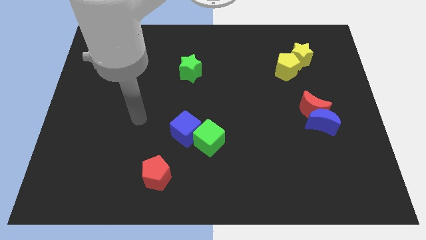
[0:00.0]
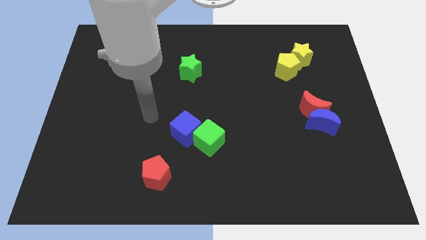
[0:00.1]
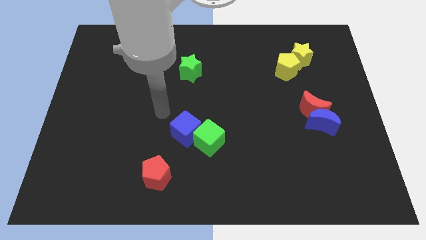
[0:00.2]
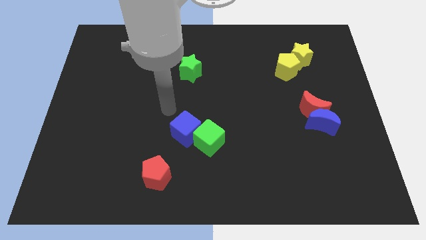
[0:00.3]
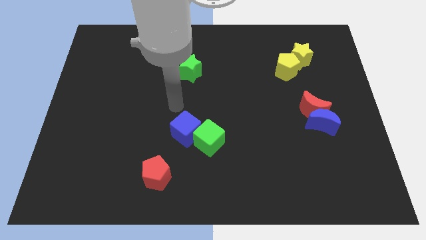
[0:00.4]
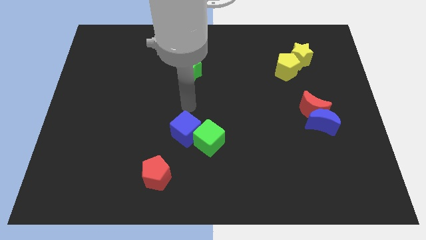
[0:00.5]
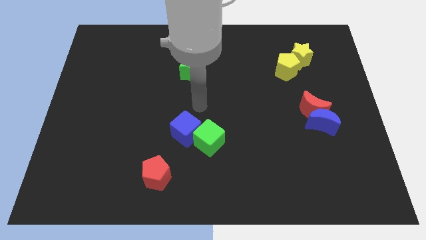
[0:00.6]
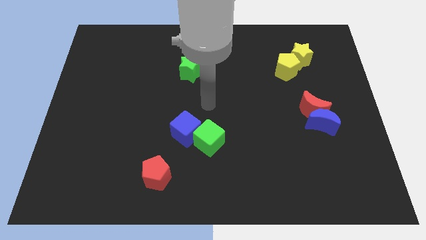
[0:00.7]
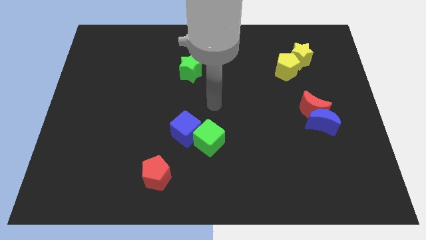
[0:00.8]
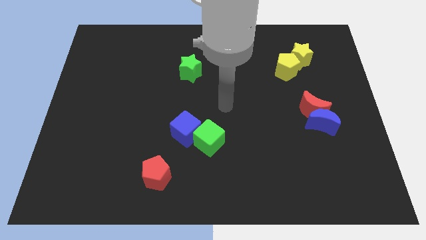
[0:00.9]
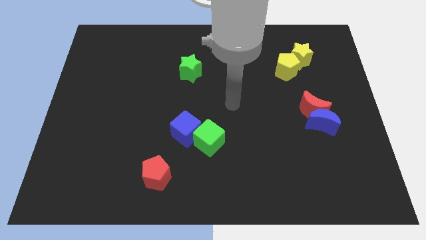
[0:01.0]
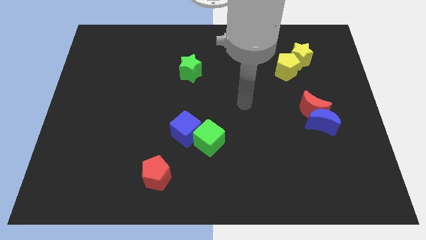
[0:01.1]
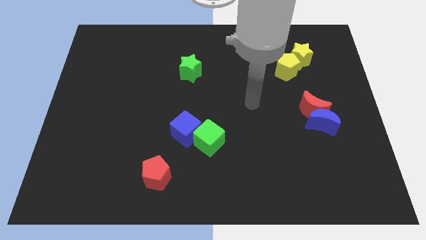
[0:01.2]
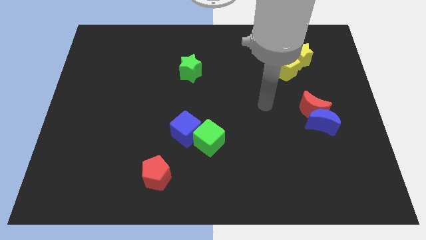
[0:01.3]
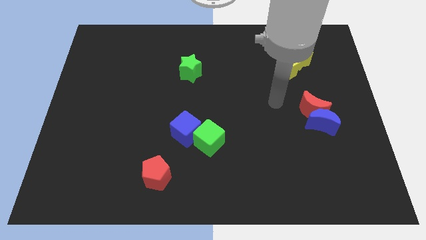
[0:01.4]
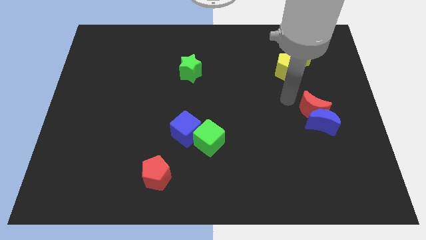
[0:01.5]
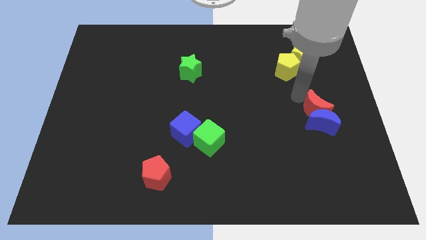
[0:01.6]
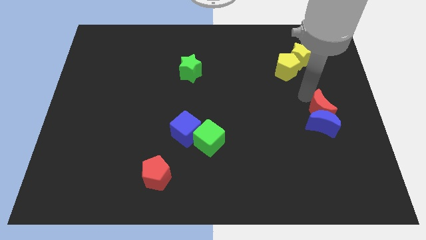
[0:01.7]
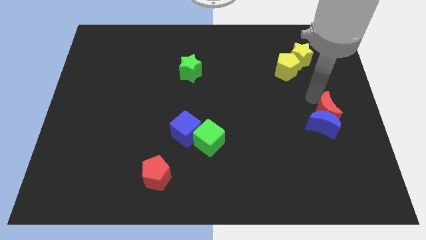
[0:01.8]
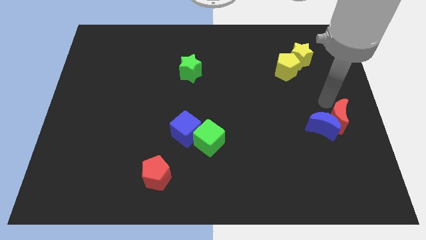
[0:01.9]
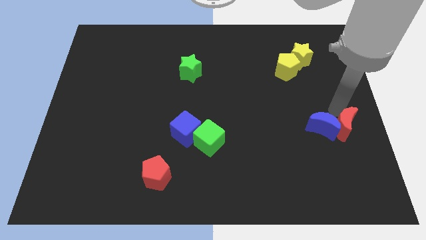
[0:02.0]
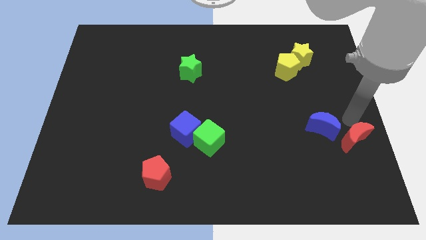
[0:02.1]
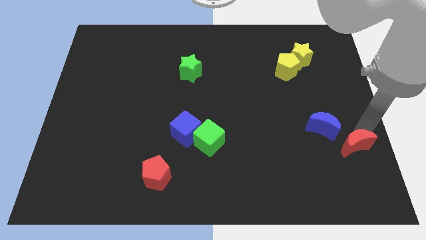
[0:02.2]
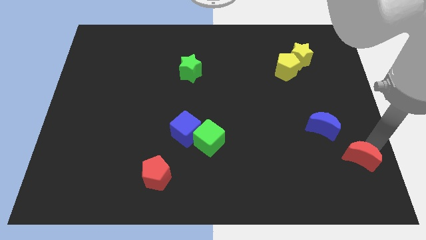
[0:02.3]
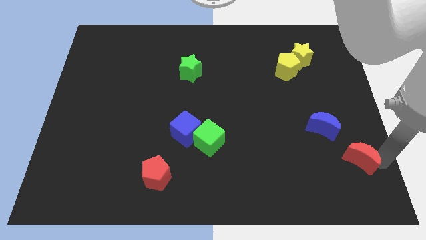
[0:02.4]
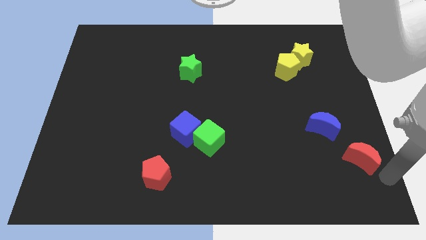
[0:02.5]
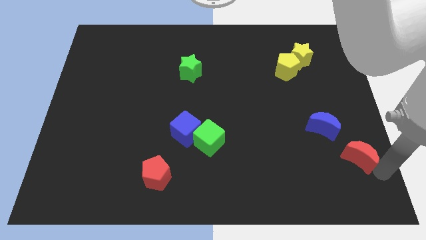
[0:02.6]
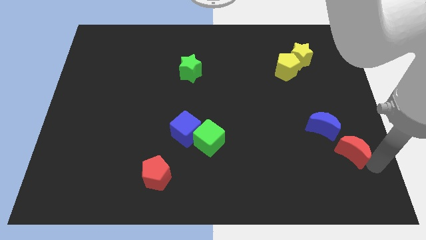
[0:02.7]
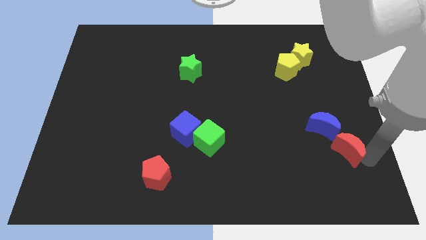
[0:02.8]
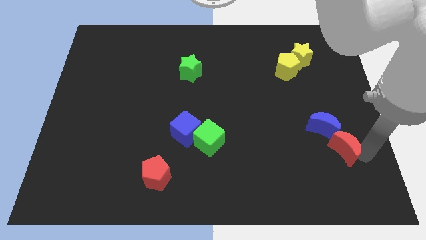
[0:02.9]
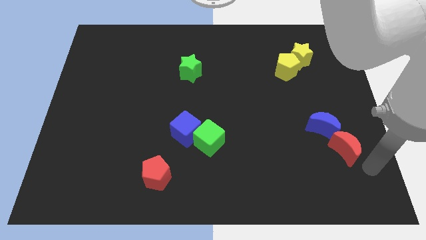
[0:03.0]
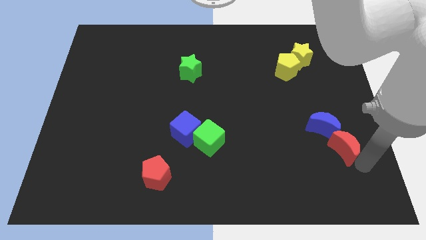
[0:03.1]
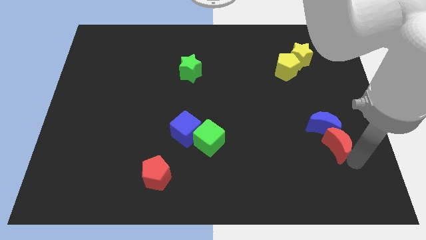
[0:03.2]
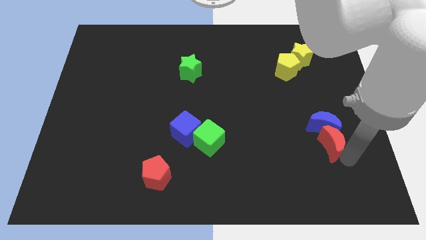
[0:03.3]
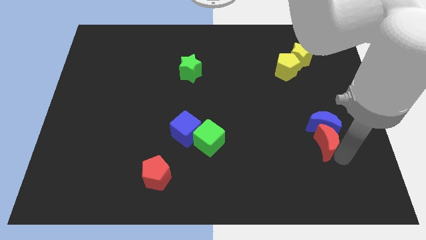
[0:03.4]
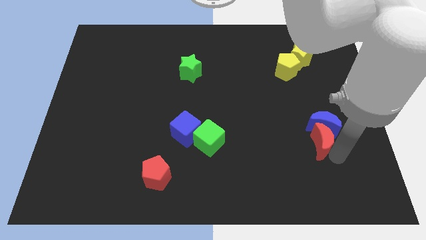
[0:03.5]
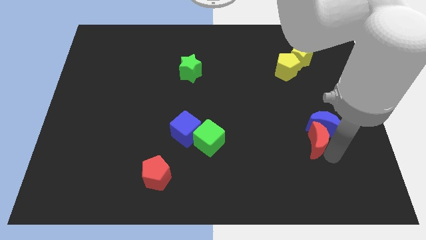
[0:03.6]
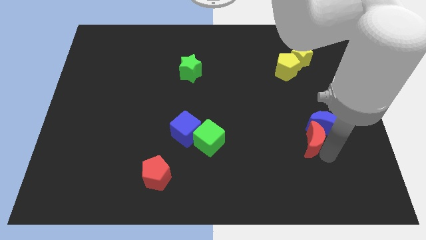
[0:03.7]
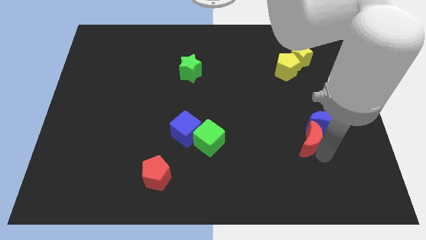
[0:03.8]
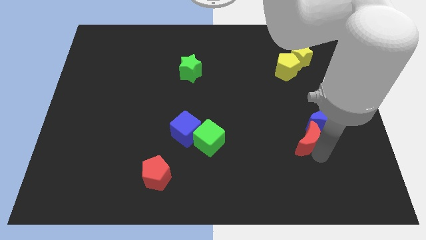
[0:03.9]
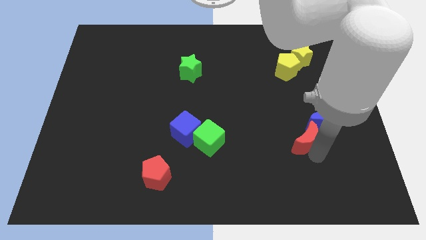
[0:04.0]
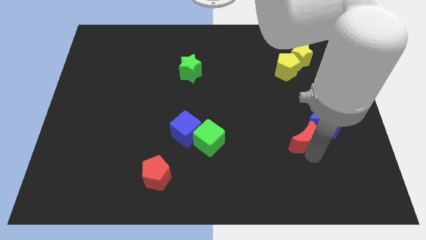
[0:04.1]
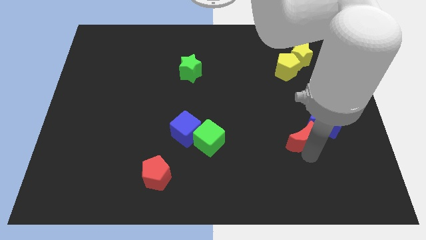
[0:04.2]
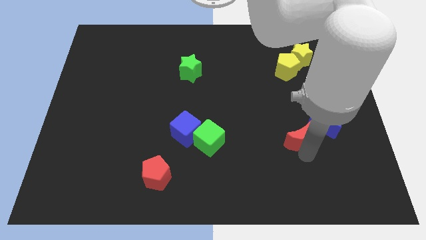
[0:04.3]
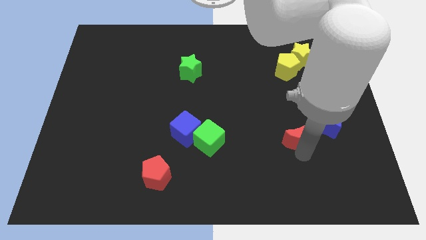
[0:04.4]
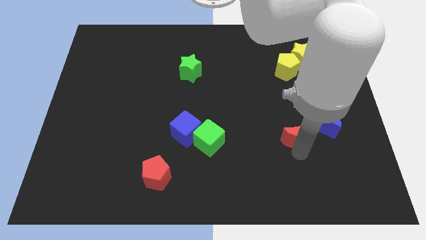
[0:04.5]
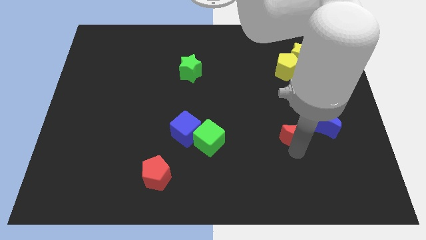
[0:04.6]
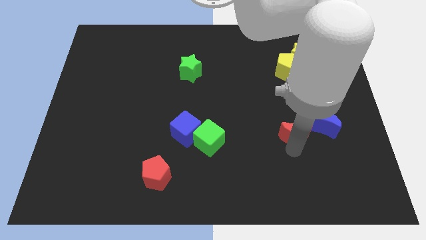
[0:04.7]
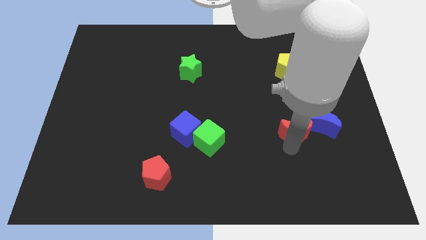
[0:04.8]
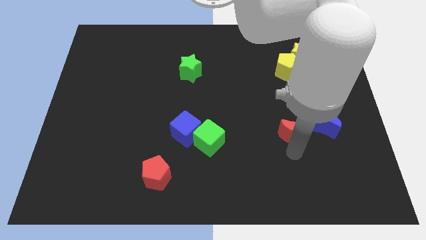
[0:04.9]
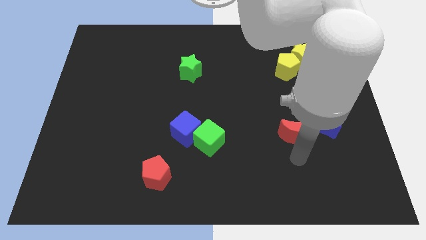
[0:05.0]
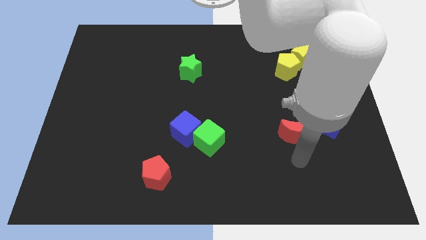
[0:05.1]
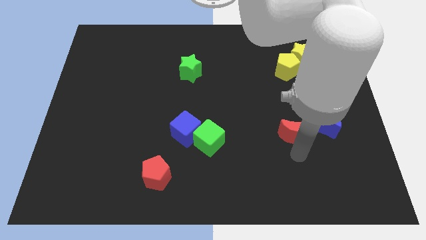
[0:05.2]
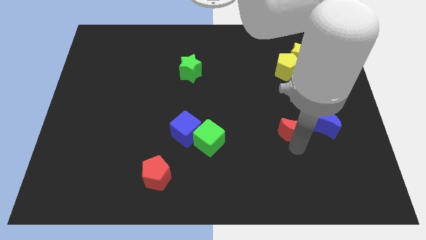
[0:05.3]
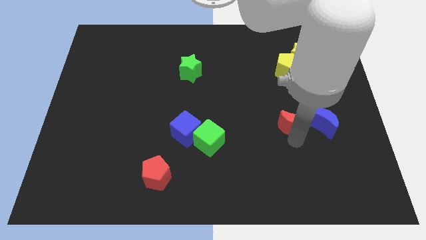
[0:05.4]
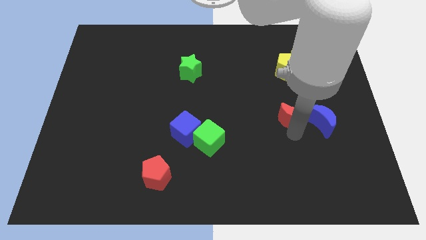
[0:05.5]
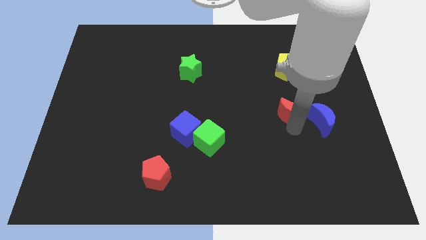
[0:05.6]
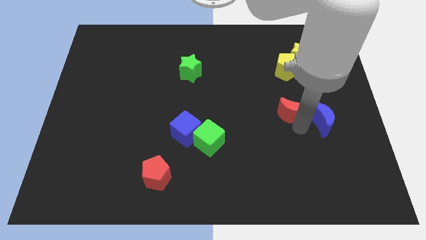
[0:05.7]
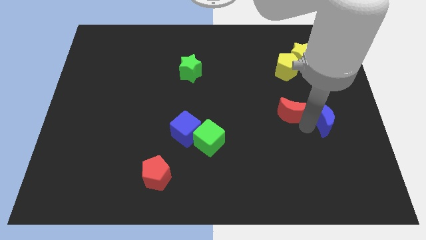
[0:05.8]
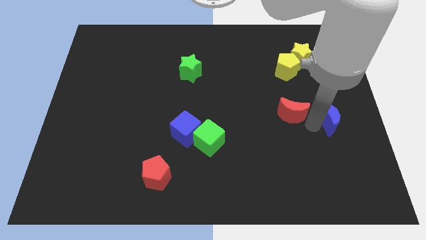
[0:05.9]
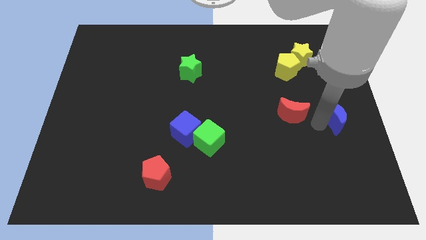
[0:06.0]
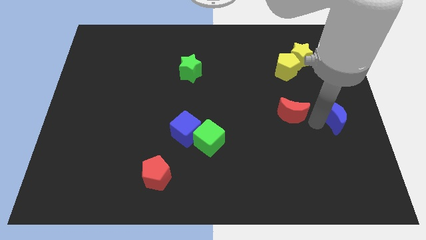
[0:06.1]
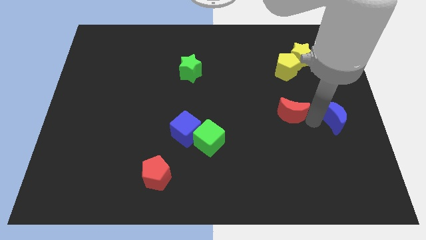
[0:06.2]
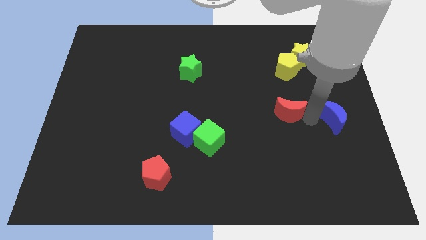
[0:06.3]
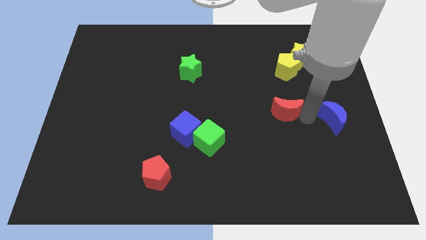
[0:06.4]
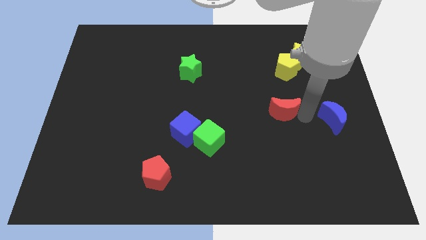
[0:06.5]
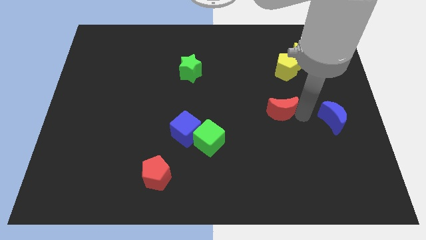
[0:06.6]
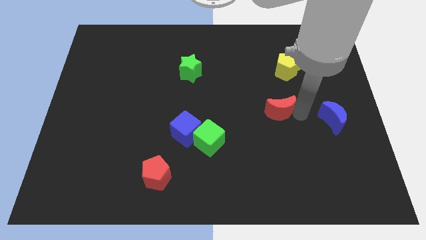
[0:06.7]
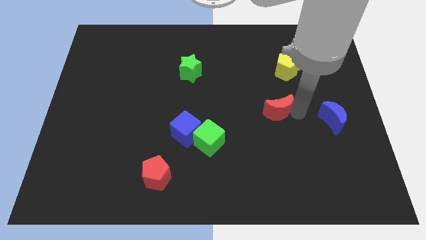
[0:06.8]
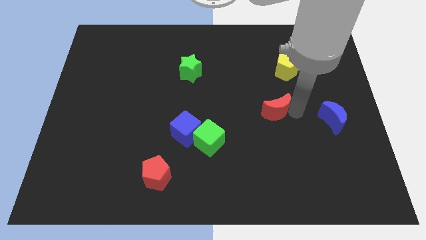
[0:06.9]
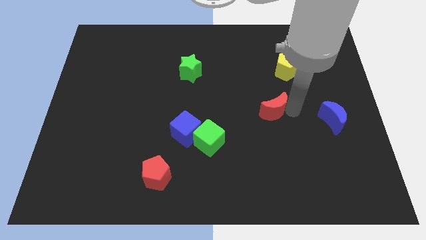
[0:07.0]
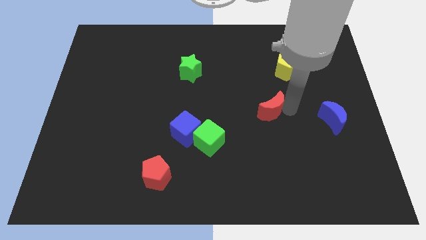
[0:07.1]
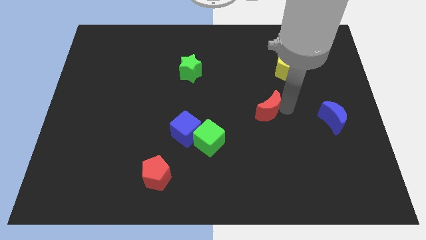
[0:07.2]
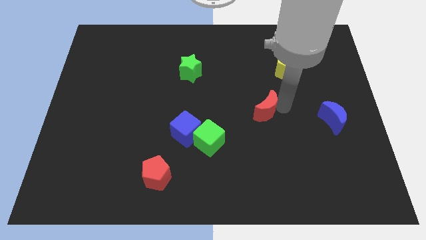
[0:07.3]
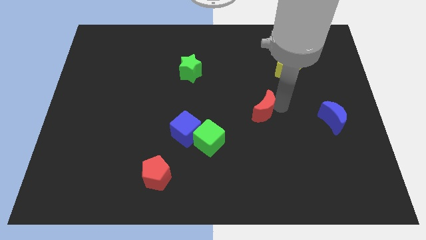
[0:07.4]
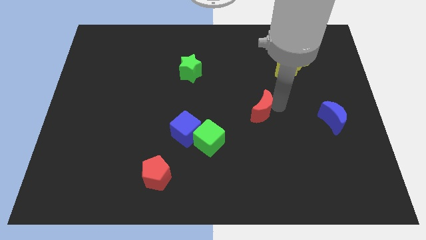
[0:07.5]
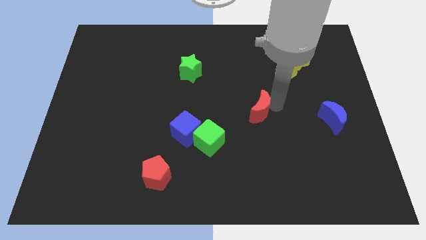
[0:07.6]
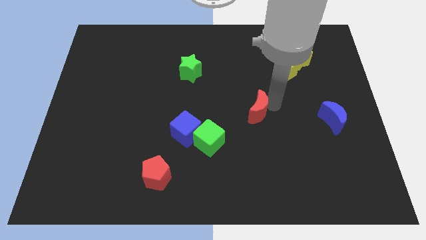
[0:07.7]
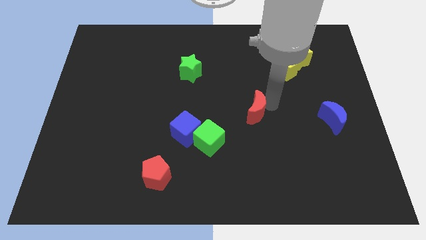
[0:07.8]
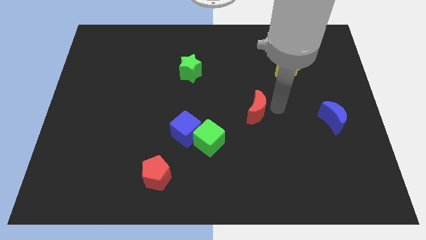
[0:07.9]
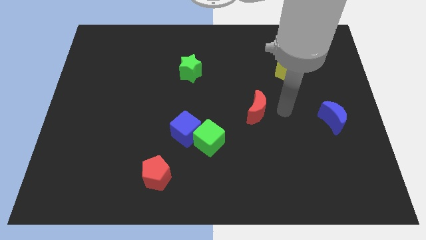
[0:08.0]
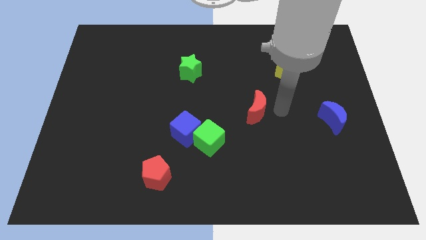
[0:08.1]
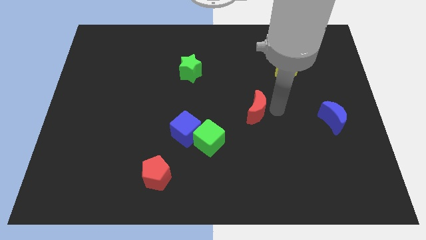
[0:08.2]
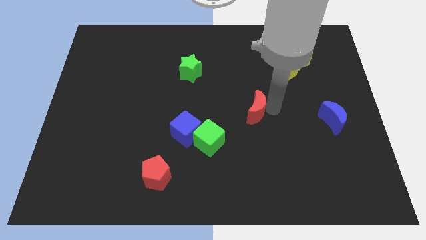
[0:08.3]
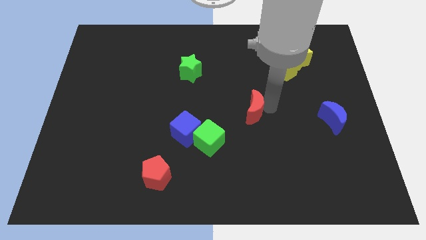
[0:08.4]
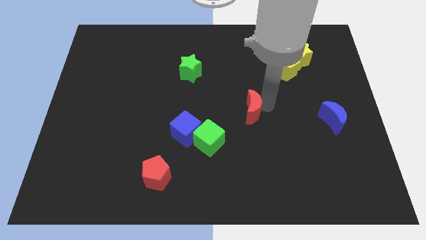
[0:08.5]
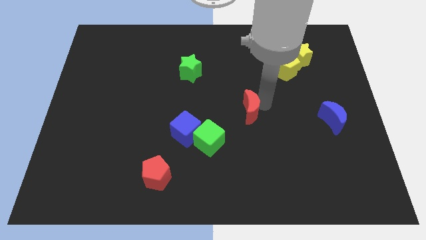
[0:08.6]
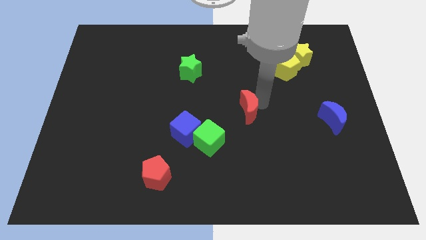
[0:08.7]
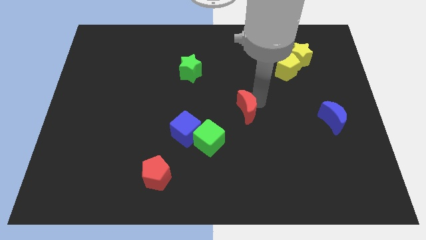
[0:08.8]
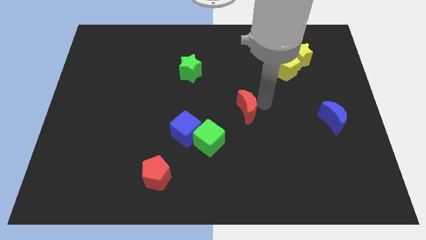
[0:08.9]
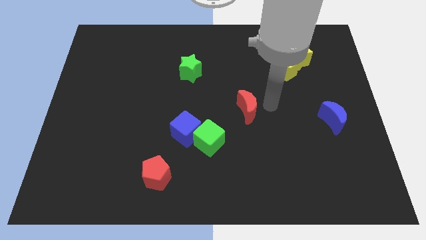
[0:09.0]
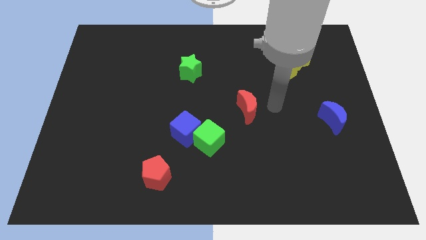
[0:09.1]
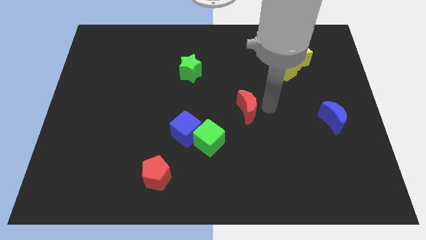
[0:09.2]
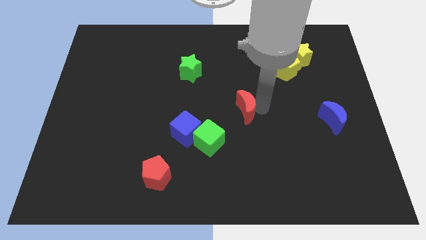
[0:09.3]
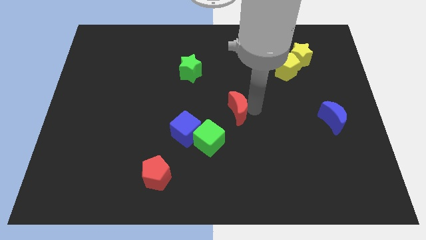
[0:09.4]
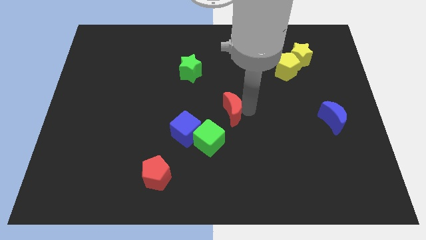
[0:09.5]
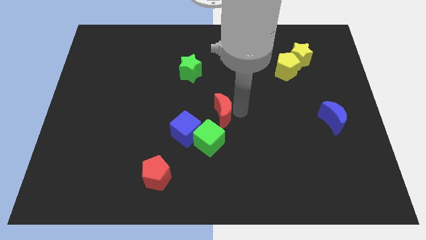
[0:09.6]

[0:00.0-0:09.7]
push the red moon to the left
